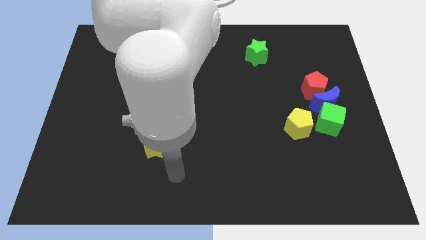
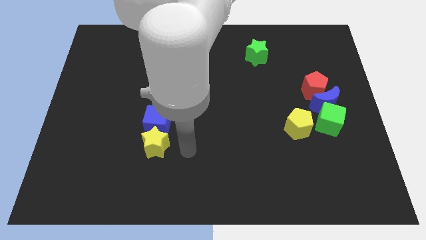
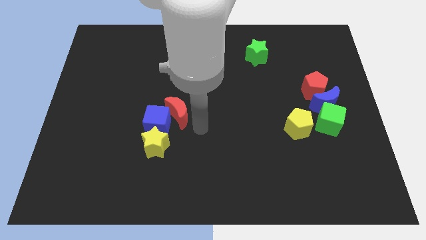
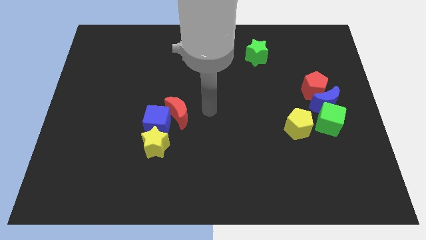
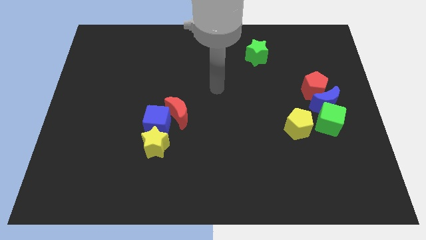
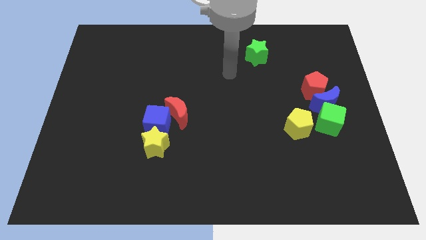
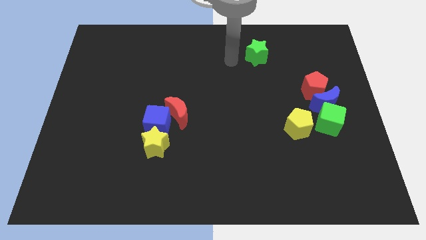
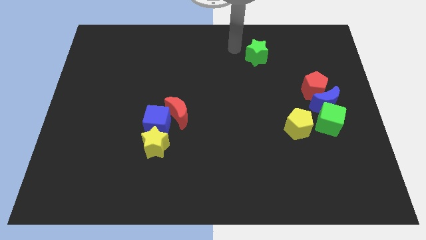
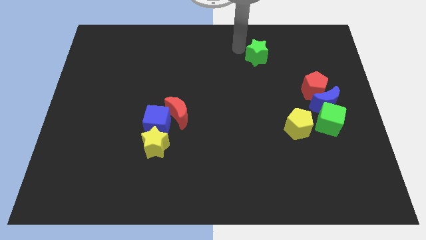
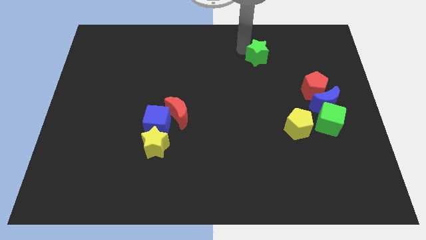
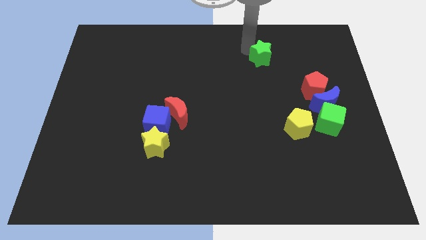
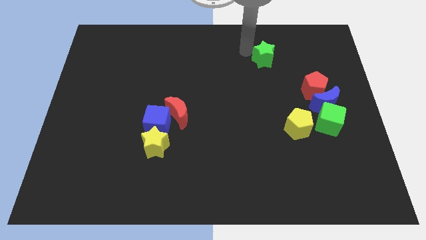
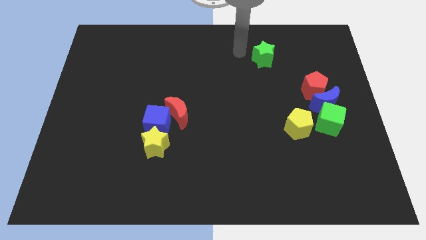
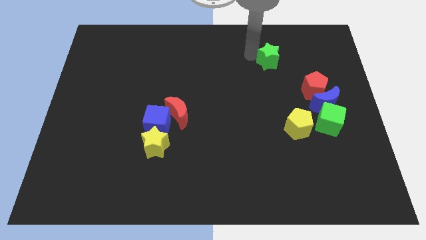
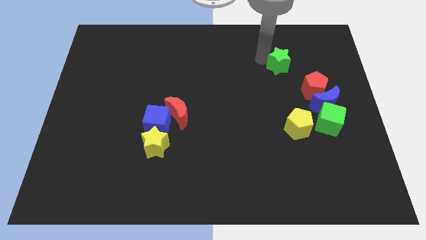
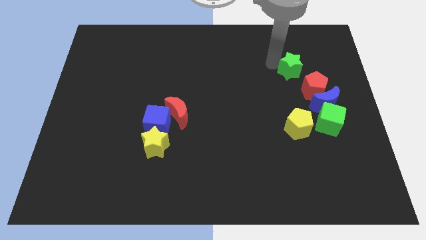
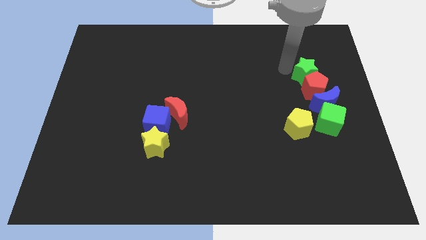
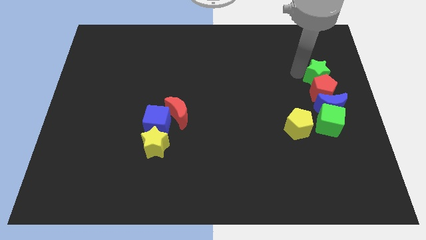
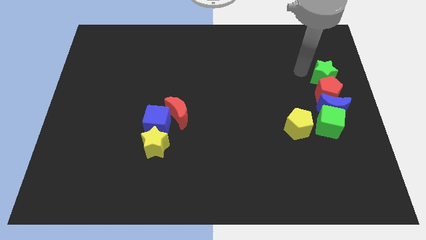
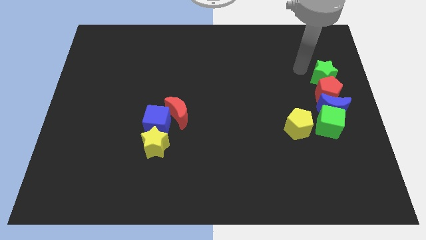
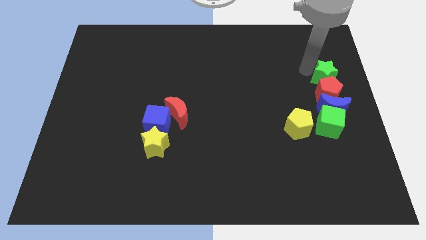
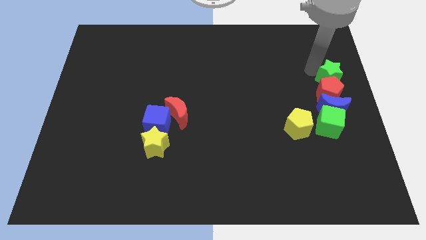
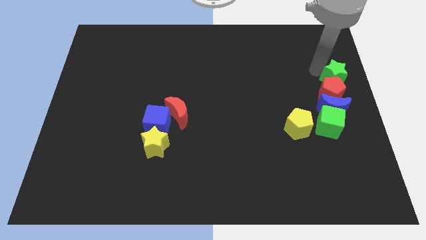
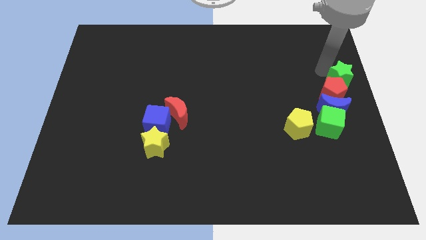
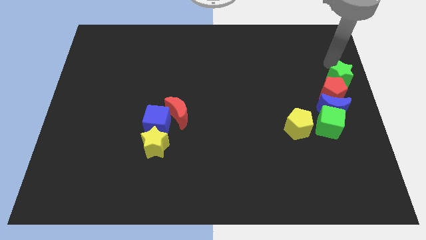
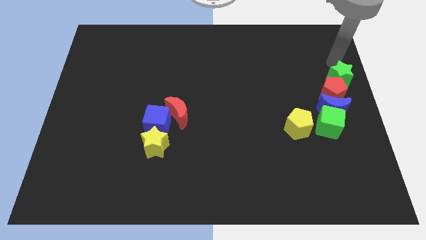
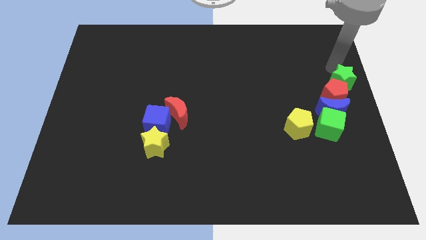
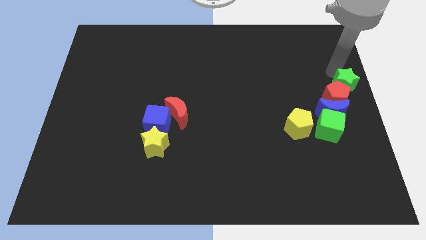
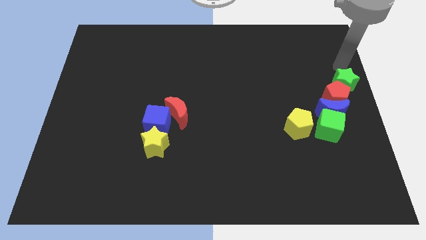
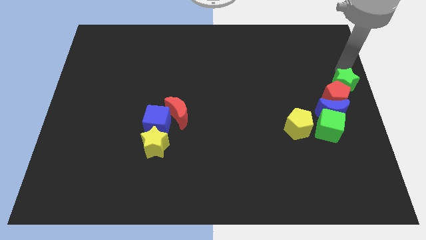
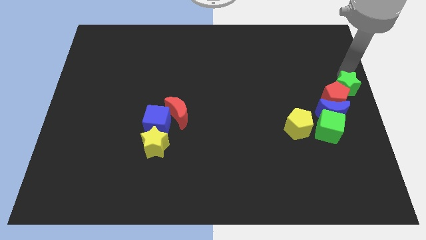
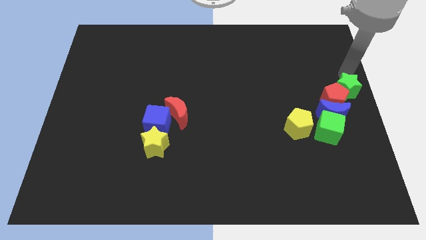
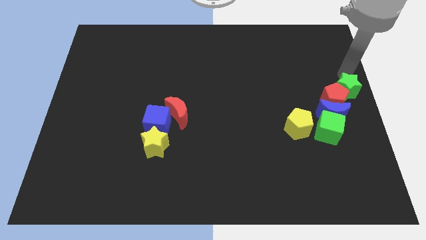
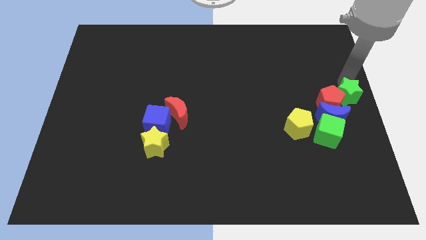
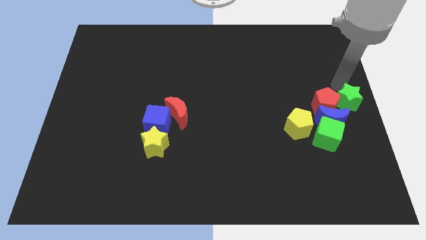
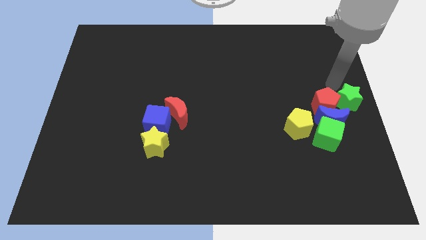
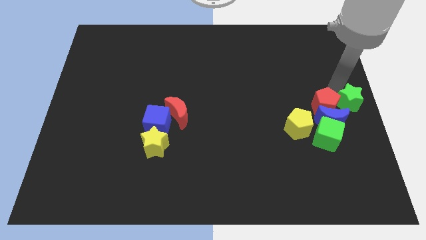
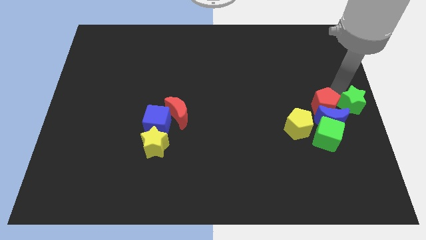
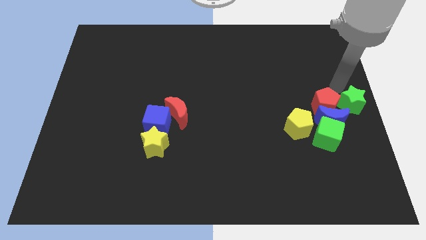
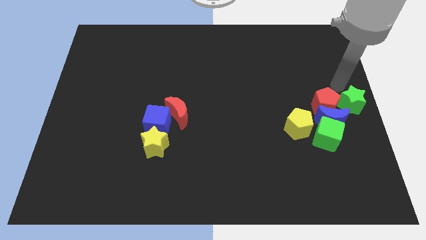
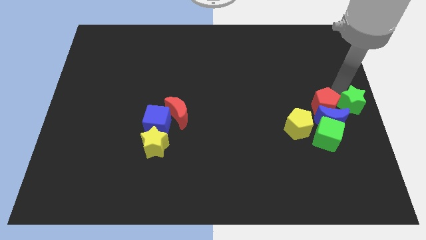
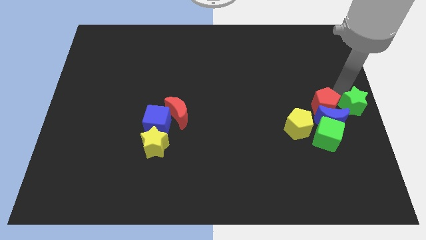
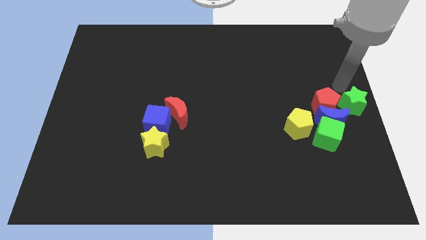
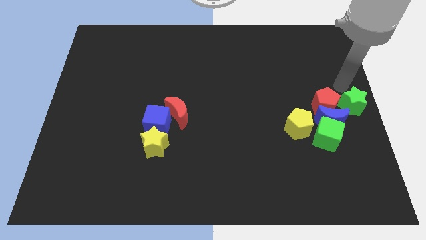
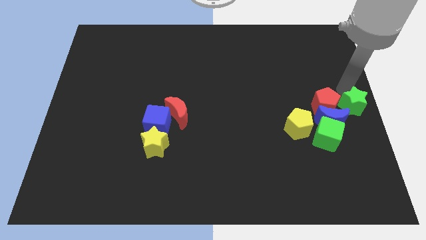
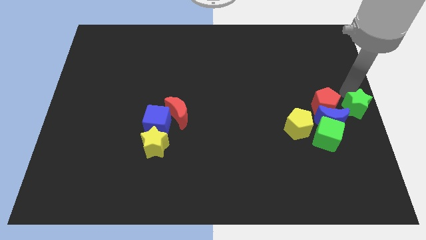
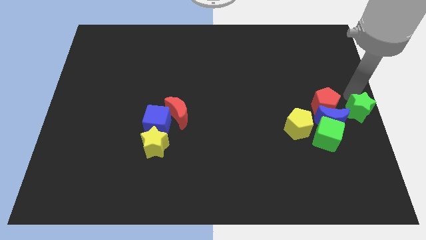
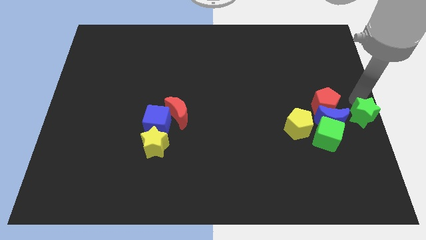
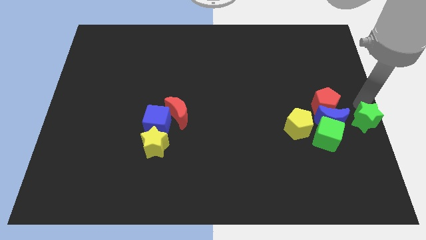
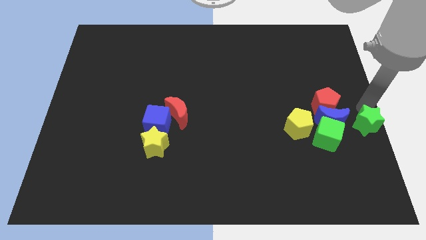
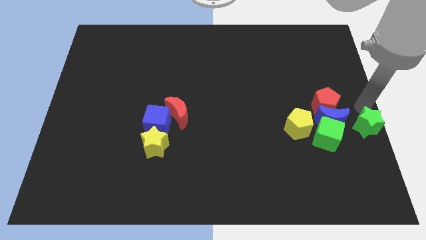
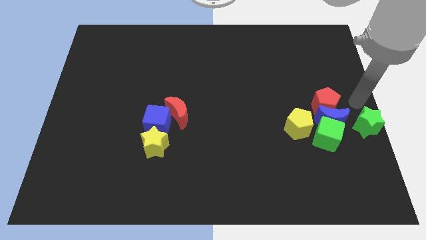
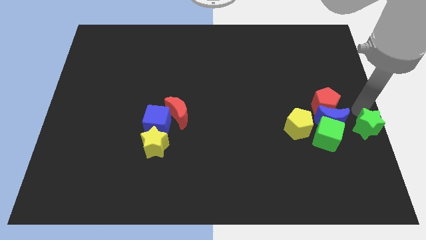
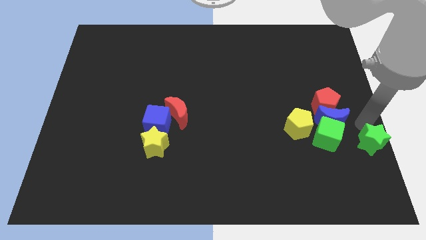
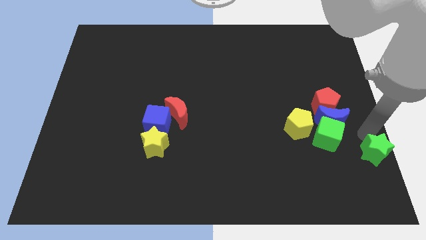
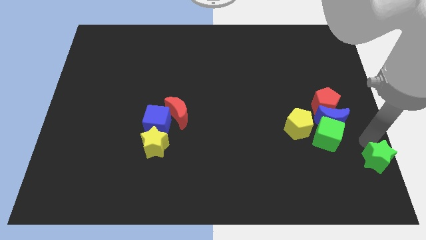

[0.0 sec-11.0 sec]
slide the green star to the lower right corner
